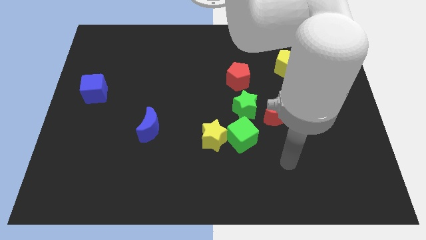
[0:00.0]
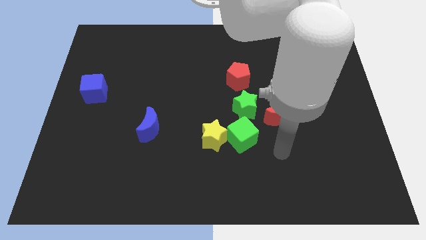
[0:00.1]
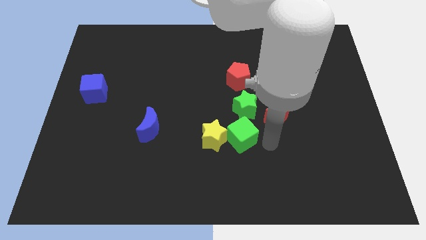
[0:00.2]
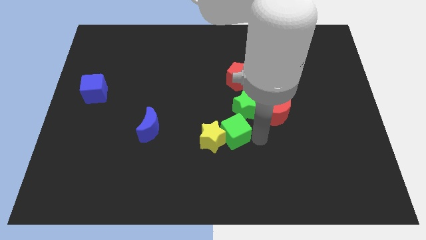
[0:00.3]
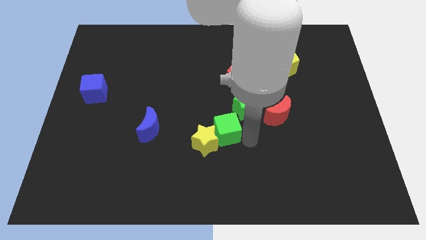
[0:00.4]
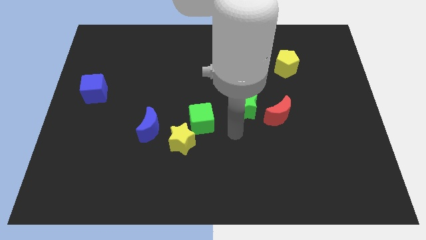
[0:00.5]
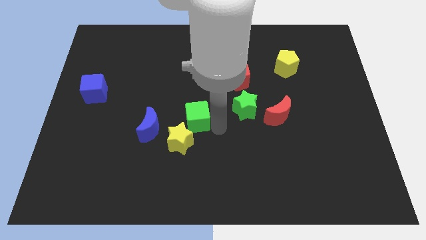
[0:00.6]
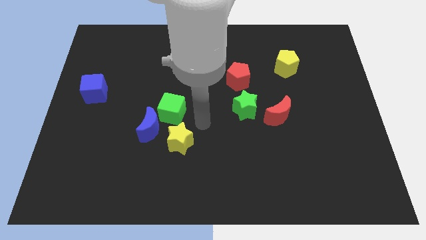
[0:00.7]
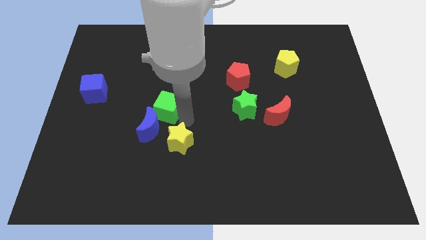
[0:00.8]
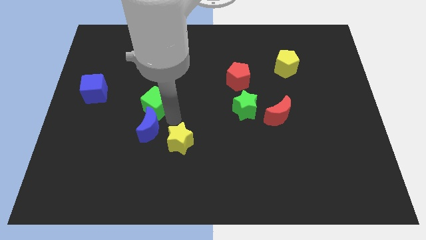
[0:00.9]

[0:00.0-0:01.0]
pull the yellow star apart from the green cube

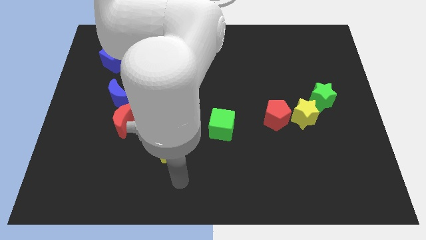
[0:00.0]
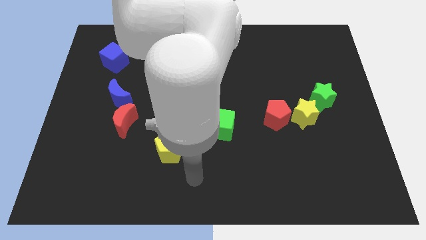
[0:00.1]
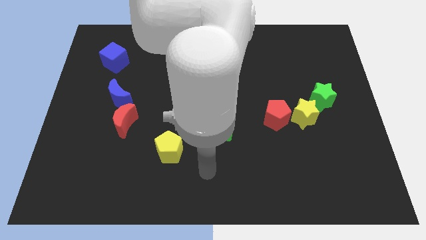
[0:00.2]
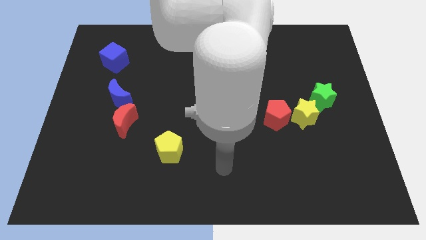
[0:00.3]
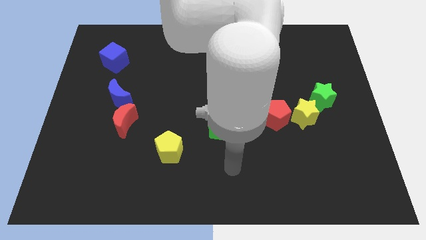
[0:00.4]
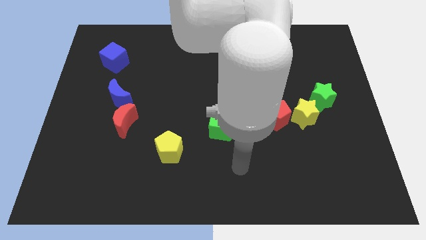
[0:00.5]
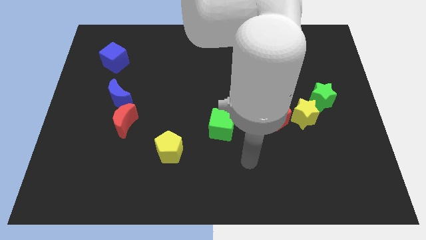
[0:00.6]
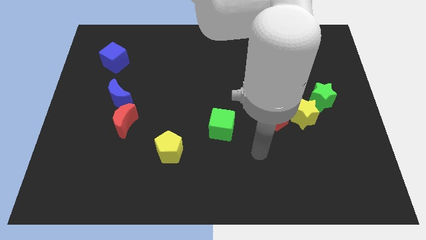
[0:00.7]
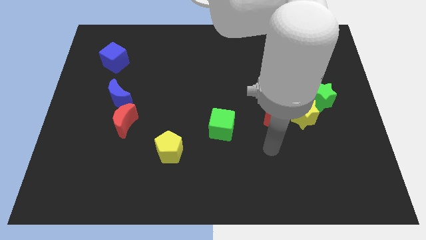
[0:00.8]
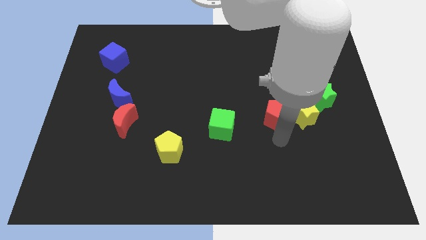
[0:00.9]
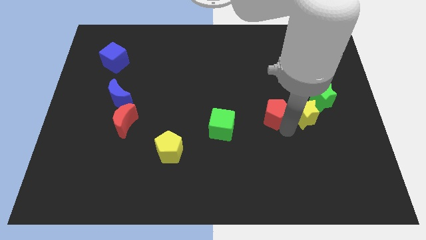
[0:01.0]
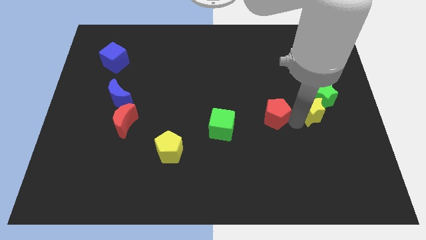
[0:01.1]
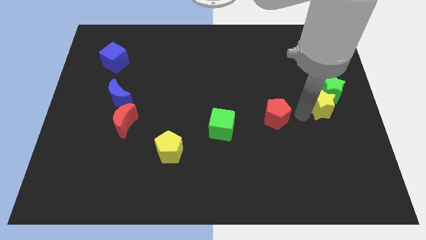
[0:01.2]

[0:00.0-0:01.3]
separate the red pentagon from the yellow star

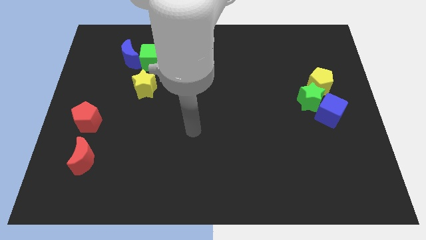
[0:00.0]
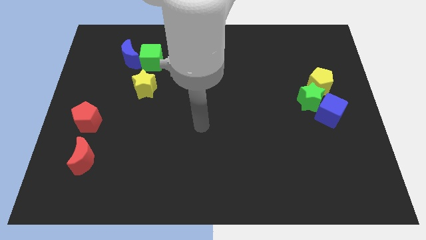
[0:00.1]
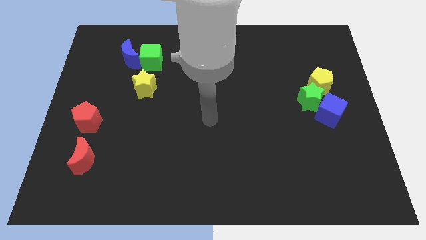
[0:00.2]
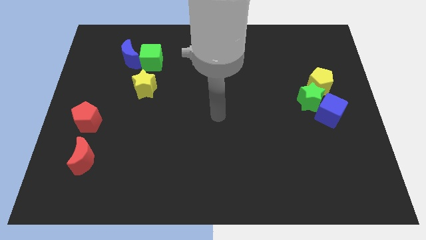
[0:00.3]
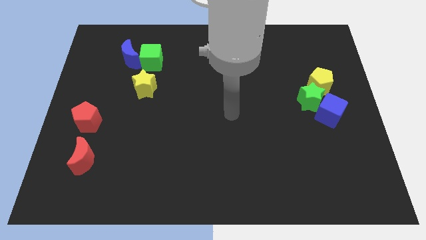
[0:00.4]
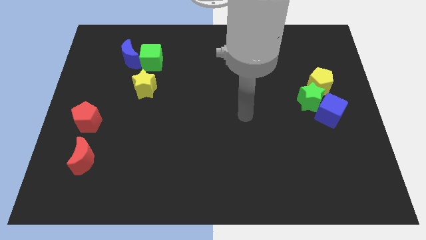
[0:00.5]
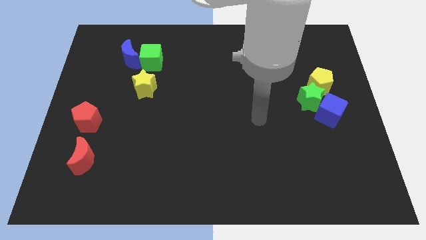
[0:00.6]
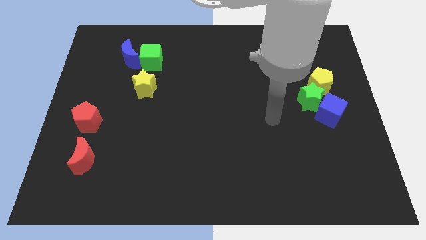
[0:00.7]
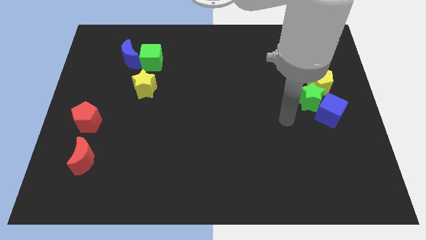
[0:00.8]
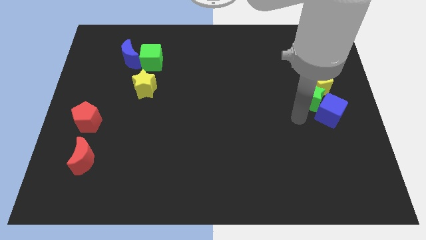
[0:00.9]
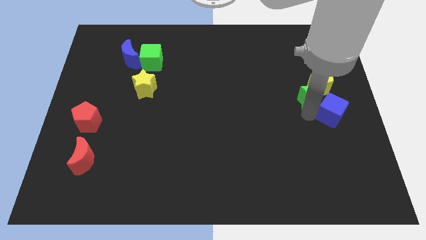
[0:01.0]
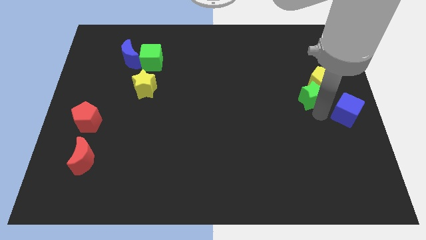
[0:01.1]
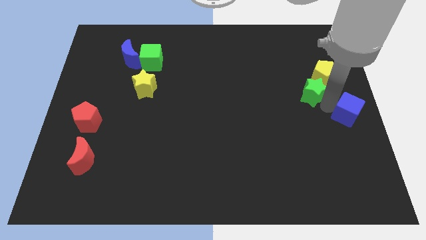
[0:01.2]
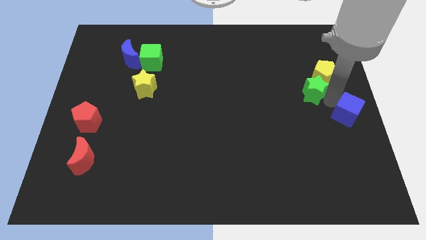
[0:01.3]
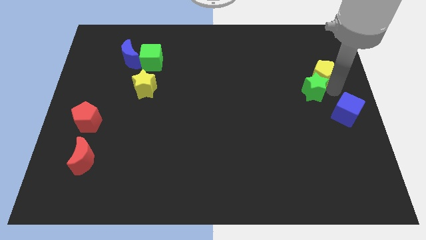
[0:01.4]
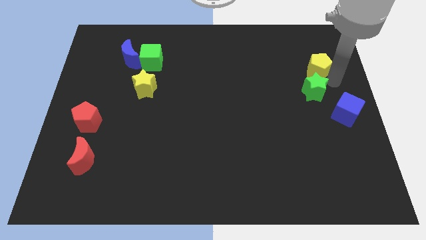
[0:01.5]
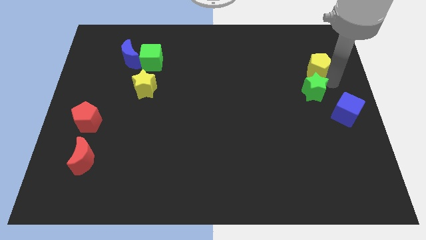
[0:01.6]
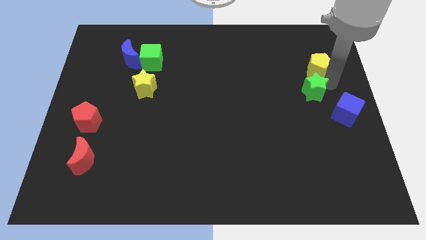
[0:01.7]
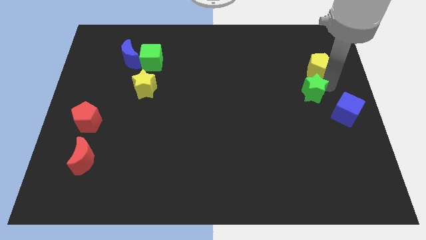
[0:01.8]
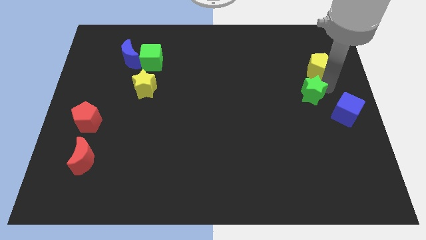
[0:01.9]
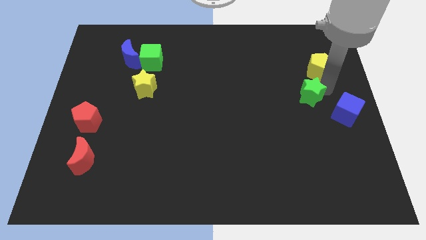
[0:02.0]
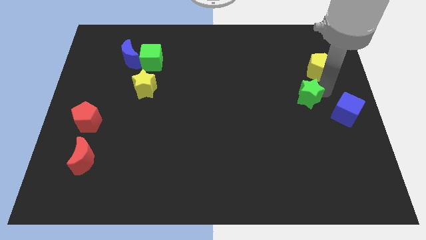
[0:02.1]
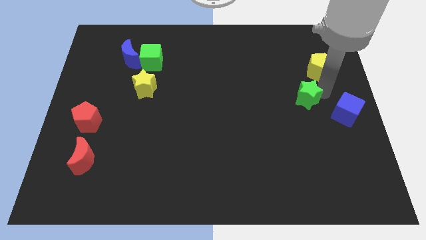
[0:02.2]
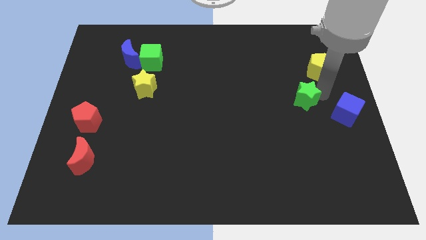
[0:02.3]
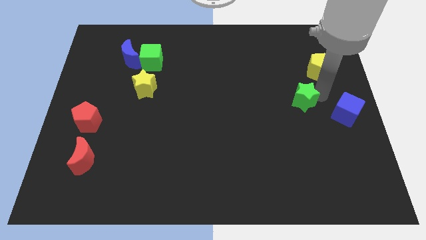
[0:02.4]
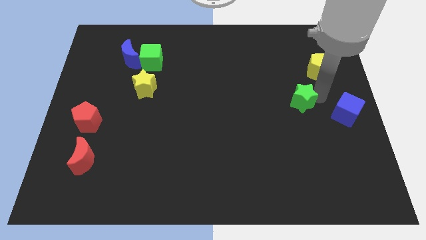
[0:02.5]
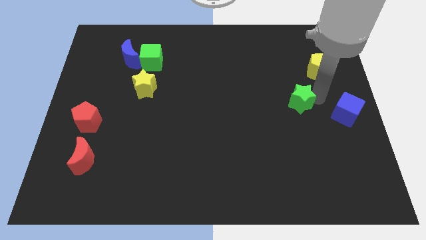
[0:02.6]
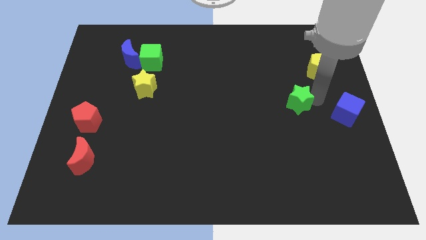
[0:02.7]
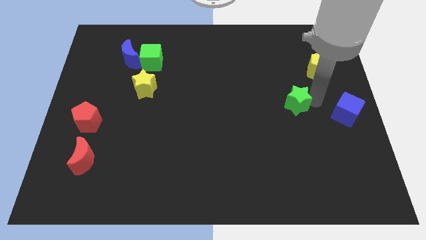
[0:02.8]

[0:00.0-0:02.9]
move the green star away from the yellow pentagon and blue cube

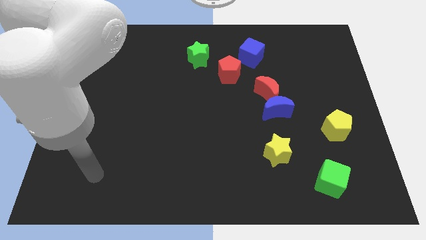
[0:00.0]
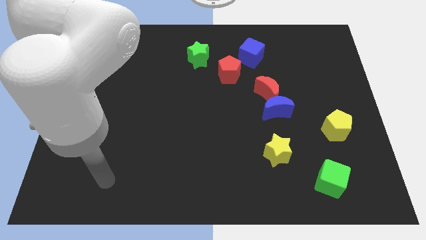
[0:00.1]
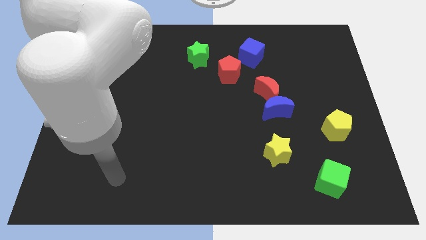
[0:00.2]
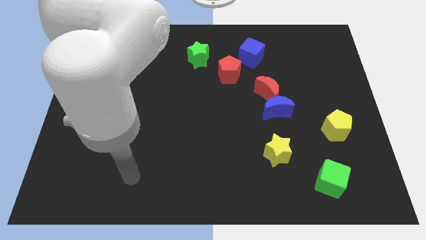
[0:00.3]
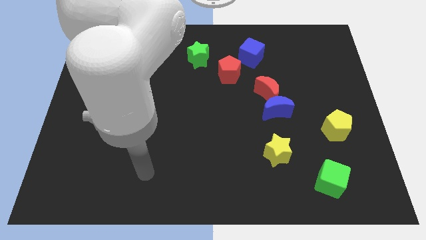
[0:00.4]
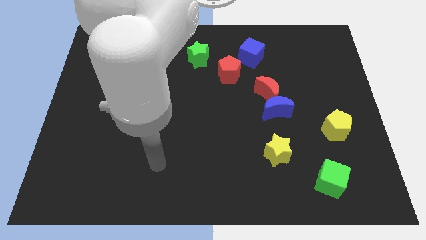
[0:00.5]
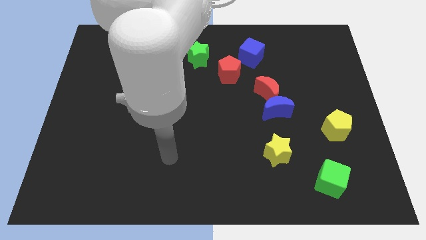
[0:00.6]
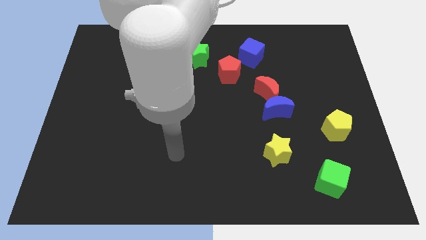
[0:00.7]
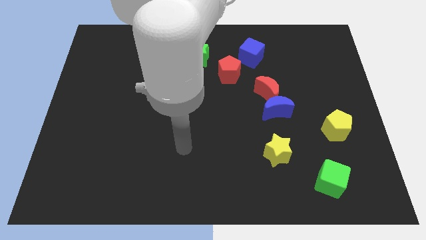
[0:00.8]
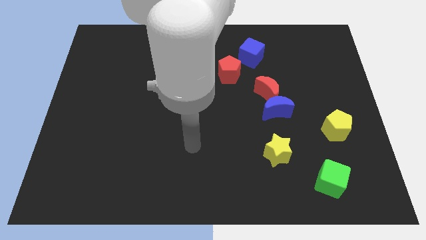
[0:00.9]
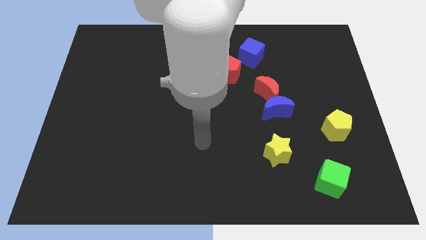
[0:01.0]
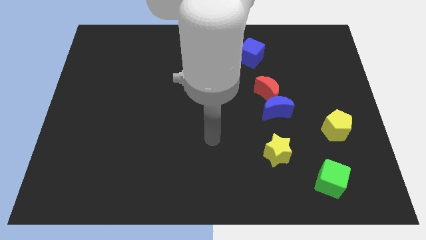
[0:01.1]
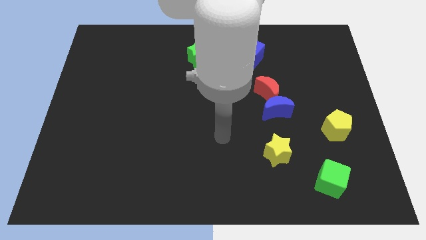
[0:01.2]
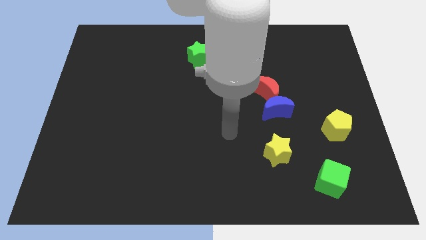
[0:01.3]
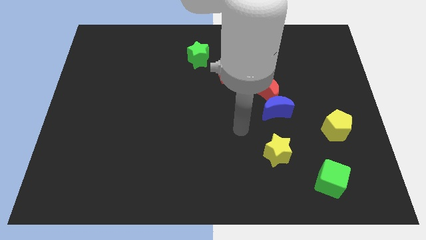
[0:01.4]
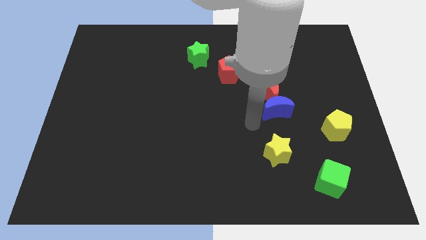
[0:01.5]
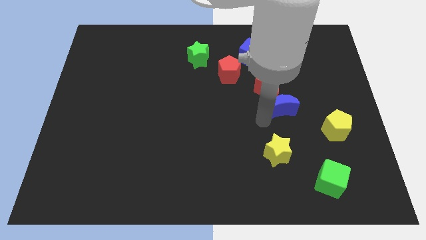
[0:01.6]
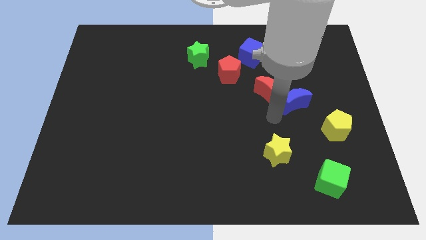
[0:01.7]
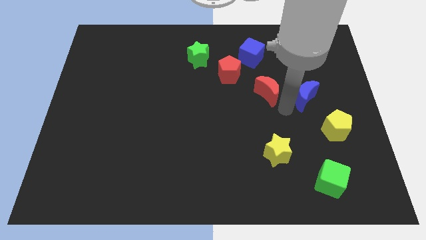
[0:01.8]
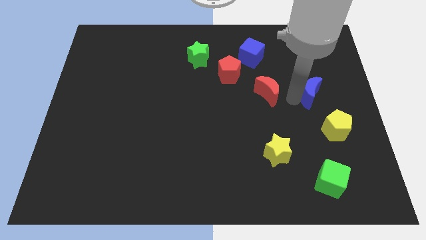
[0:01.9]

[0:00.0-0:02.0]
move the red moon away from the blue moon

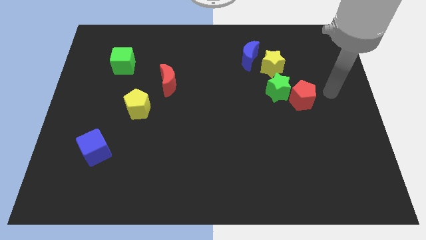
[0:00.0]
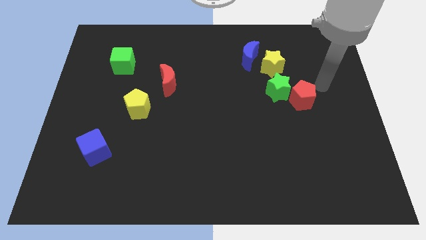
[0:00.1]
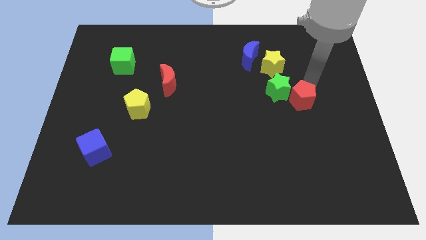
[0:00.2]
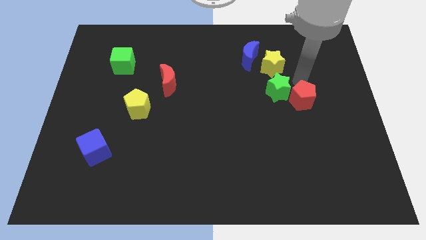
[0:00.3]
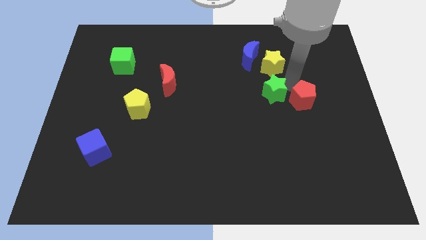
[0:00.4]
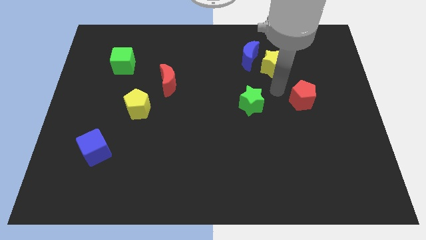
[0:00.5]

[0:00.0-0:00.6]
separate the red pentagon from the green star

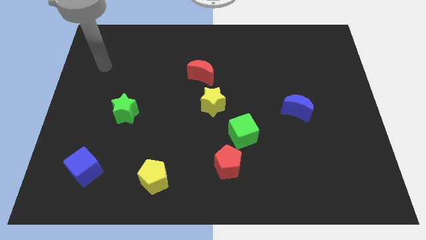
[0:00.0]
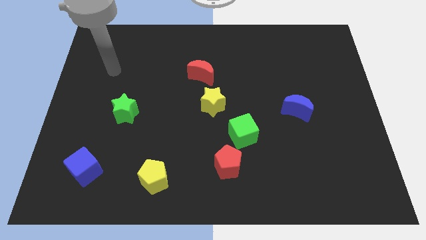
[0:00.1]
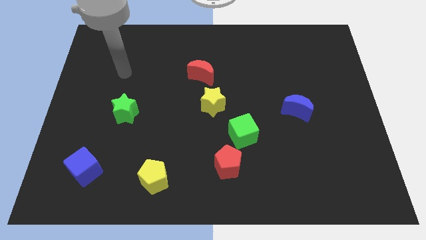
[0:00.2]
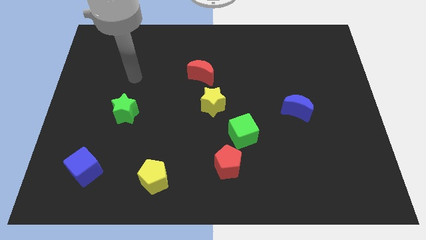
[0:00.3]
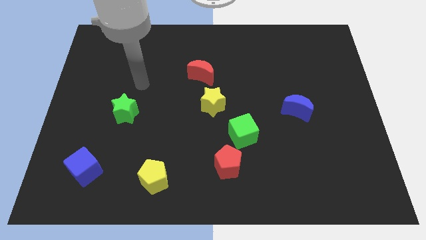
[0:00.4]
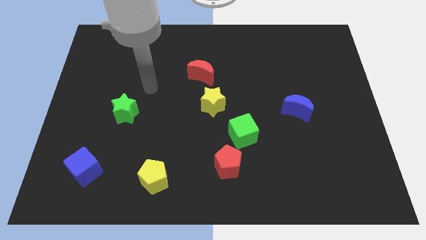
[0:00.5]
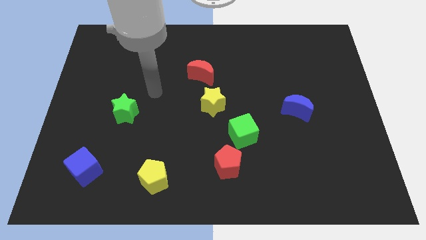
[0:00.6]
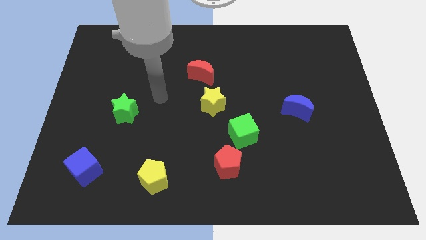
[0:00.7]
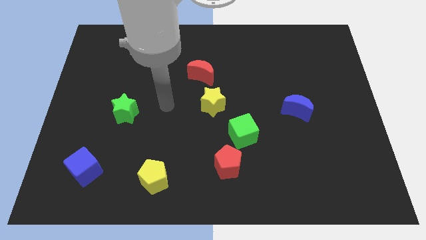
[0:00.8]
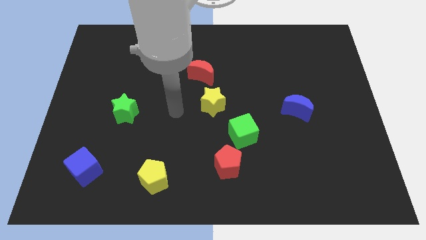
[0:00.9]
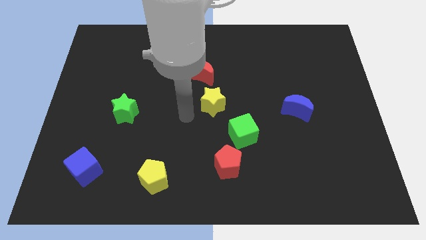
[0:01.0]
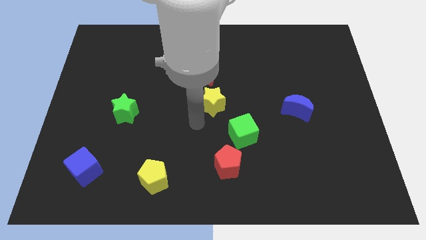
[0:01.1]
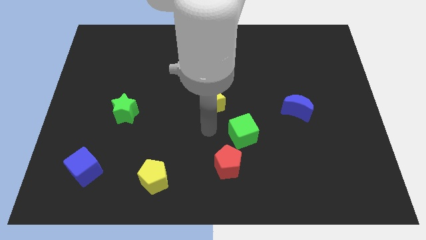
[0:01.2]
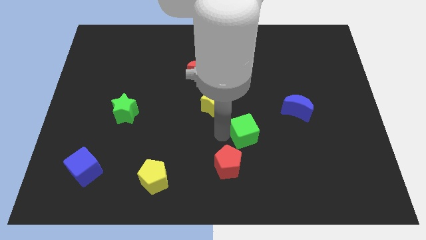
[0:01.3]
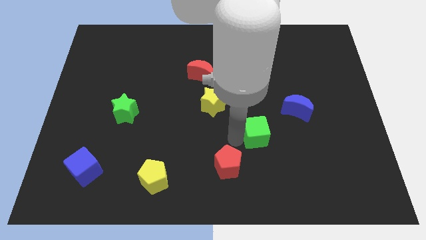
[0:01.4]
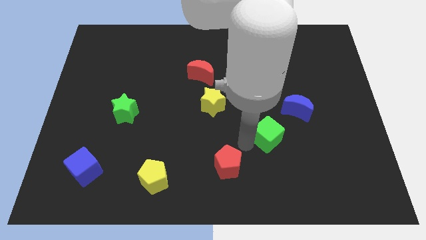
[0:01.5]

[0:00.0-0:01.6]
pull the red pentagon apart from the green cube
